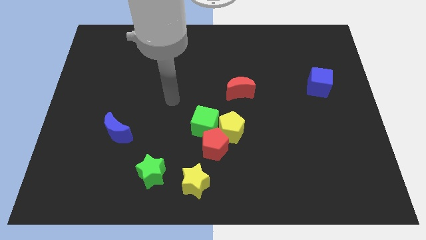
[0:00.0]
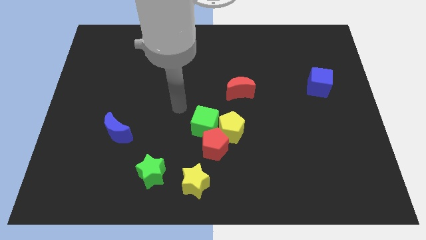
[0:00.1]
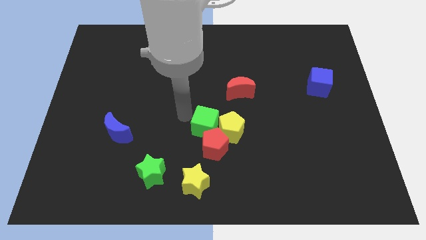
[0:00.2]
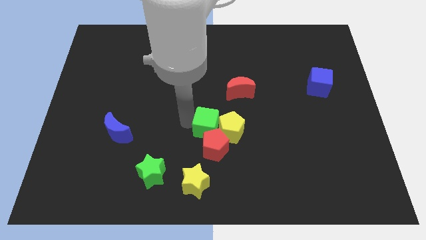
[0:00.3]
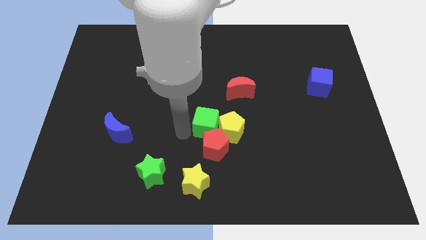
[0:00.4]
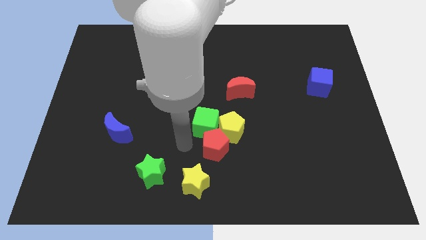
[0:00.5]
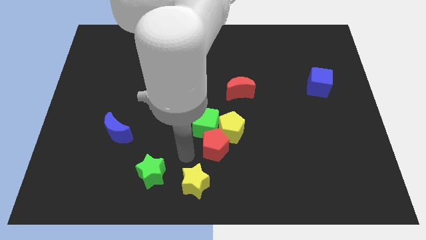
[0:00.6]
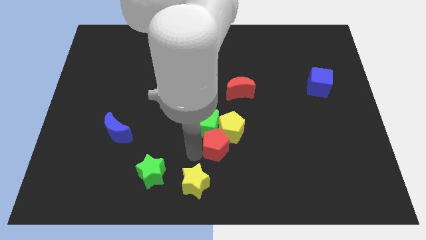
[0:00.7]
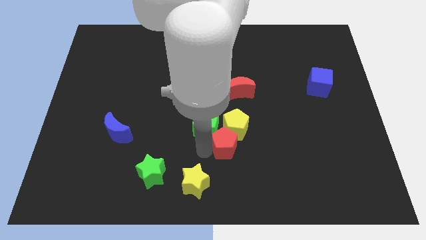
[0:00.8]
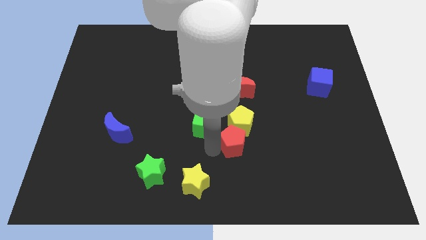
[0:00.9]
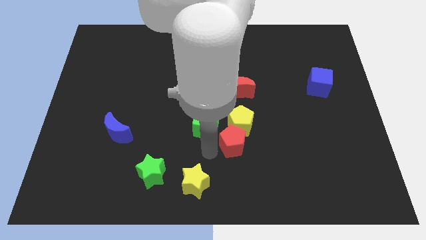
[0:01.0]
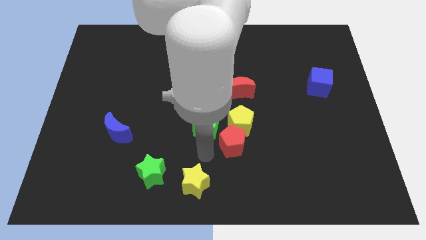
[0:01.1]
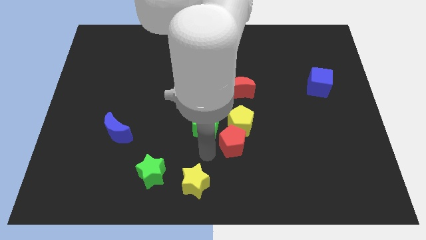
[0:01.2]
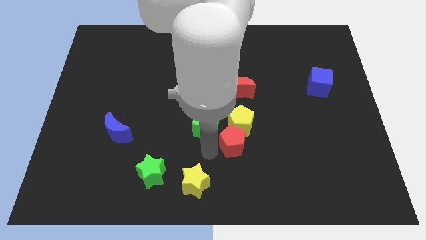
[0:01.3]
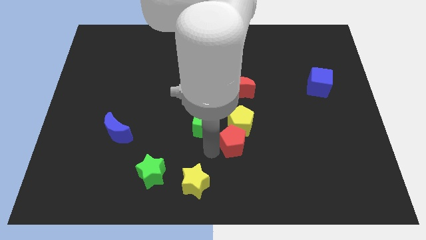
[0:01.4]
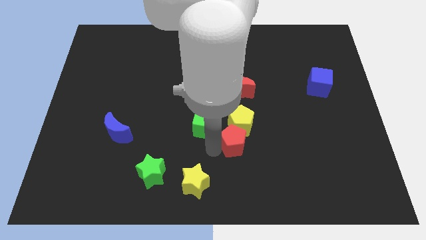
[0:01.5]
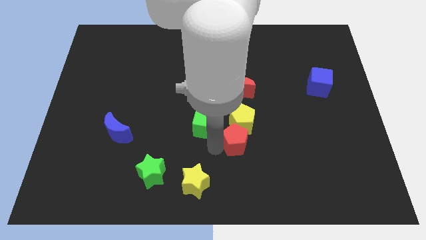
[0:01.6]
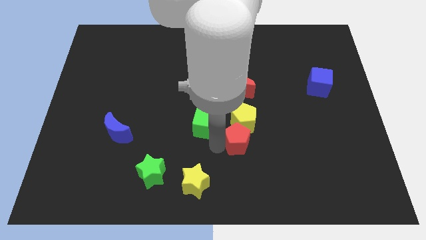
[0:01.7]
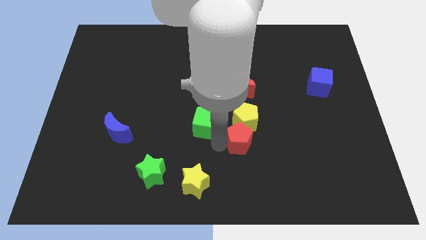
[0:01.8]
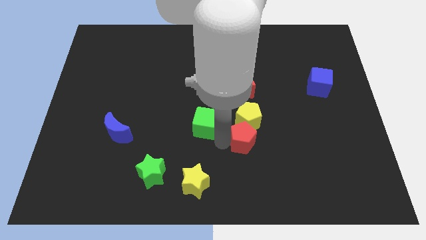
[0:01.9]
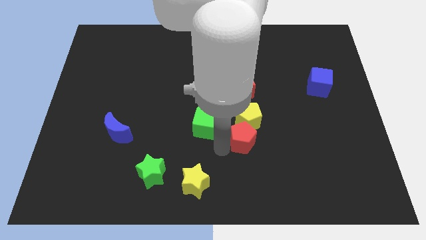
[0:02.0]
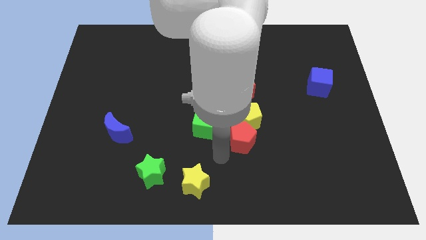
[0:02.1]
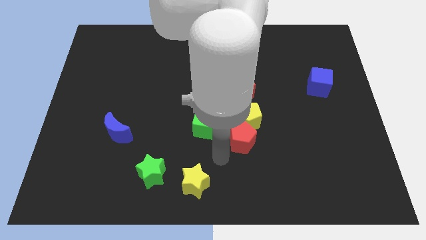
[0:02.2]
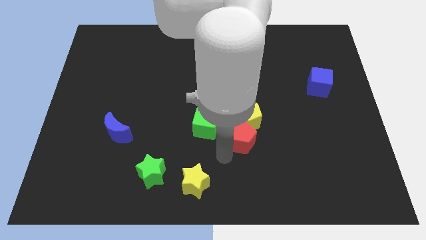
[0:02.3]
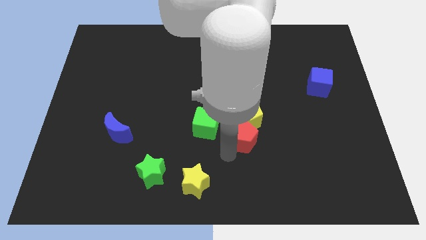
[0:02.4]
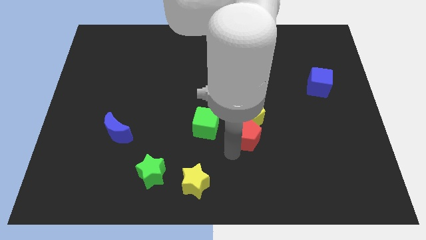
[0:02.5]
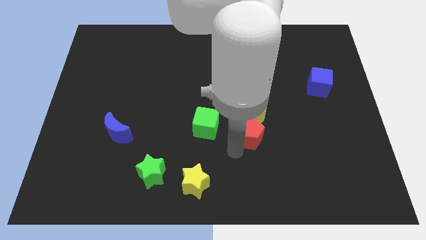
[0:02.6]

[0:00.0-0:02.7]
slightly push the red pentagon upwards and to the right

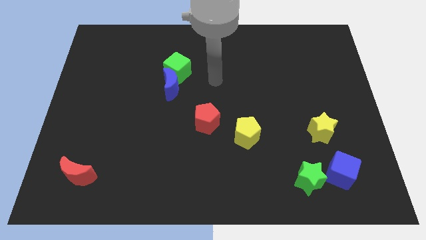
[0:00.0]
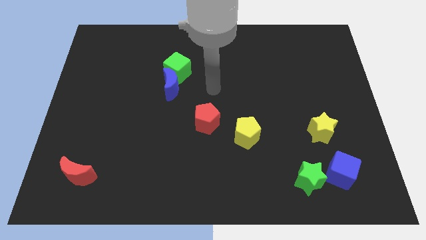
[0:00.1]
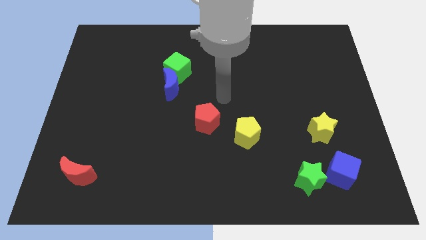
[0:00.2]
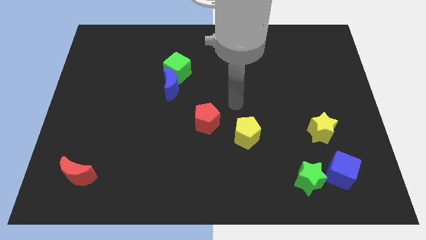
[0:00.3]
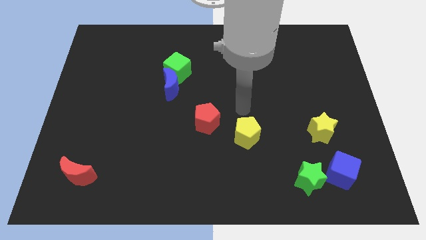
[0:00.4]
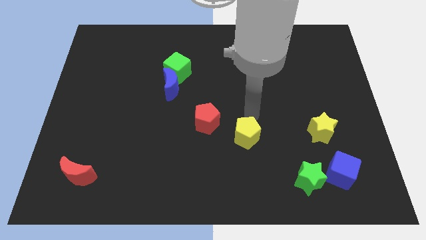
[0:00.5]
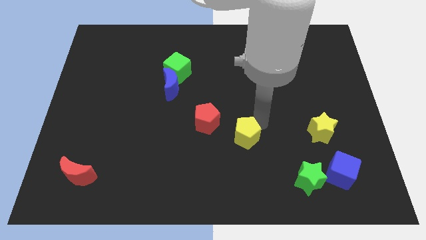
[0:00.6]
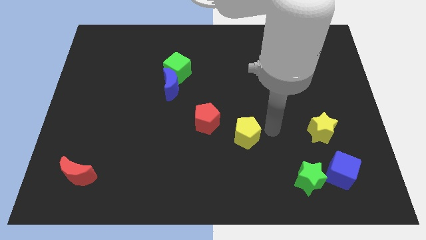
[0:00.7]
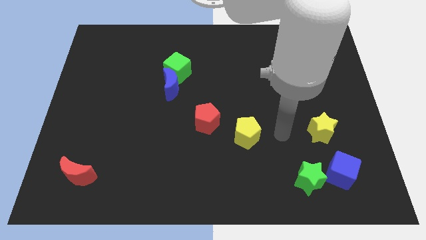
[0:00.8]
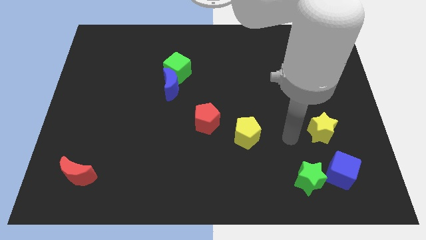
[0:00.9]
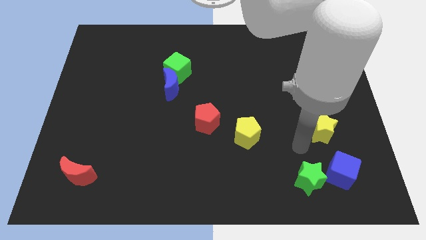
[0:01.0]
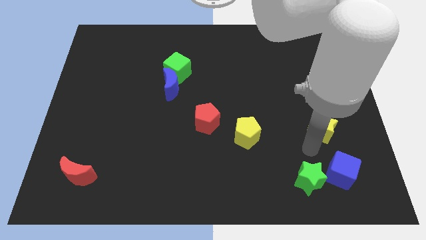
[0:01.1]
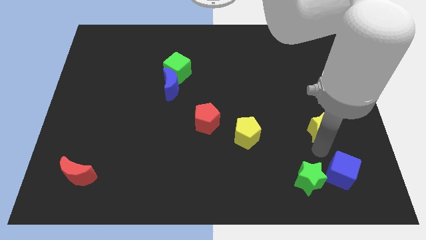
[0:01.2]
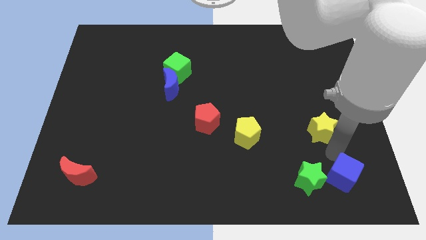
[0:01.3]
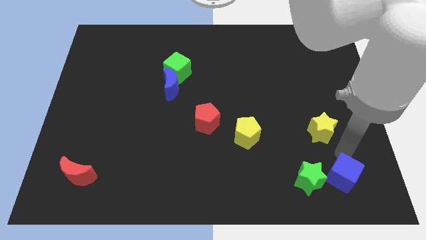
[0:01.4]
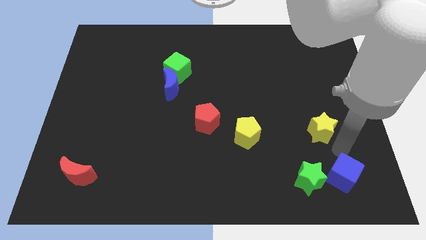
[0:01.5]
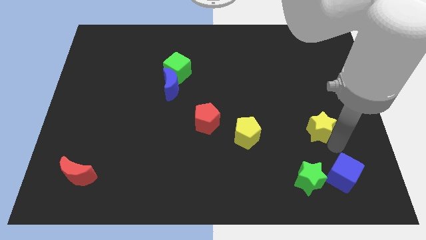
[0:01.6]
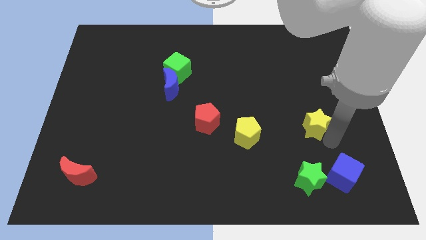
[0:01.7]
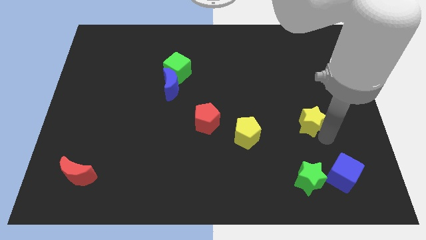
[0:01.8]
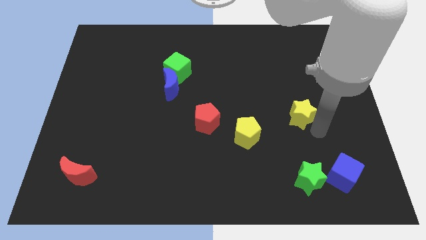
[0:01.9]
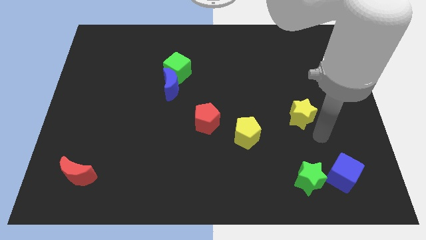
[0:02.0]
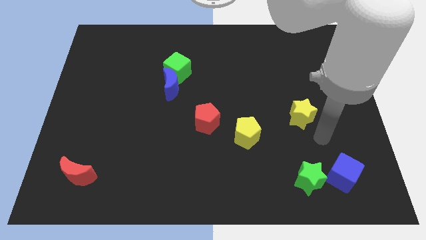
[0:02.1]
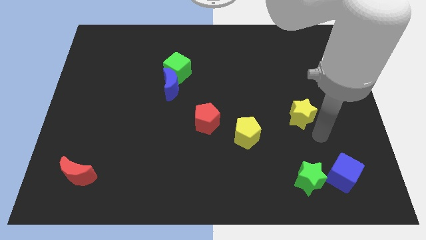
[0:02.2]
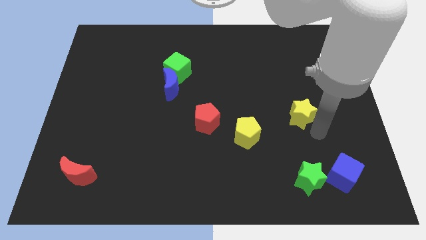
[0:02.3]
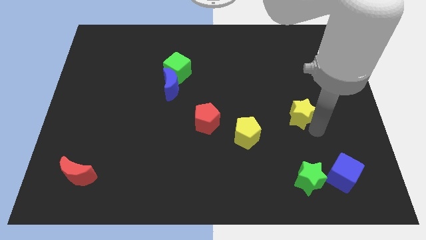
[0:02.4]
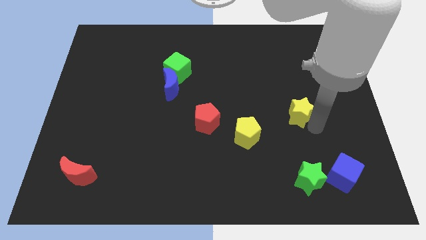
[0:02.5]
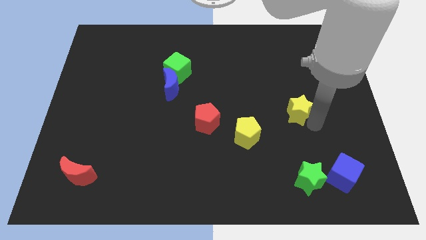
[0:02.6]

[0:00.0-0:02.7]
slightly slide the yellow star upwards and left

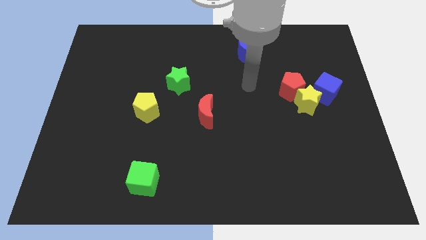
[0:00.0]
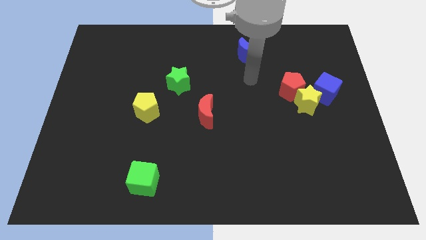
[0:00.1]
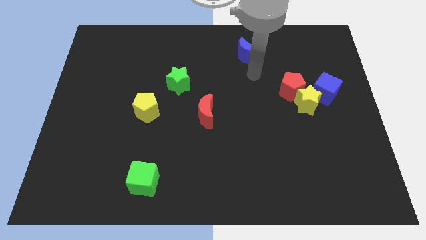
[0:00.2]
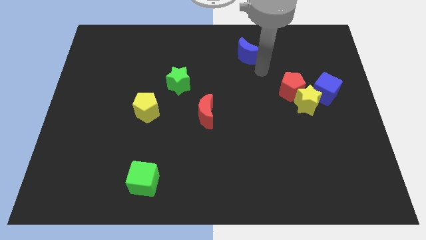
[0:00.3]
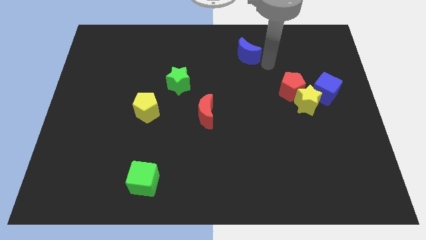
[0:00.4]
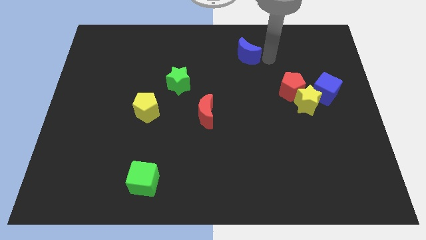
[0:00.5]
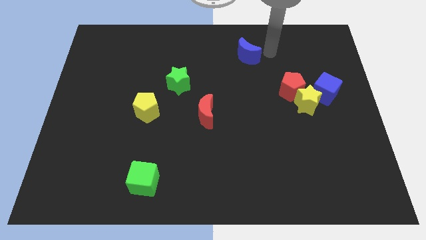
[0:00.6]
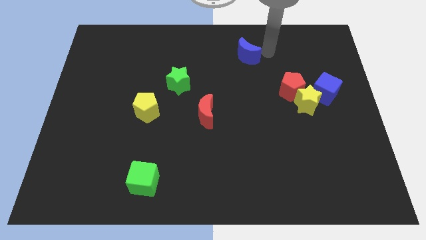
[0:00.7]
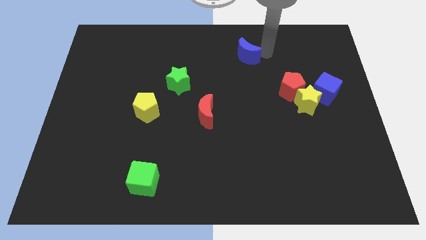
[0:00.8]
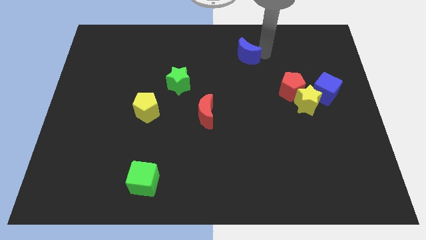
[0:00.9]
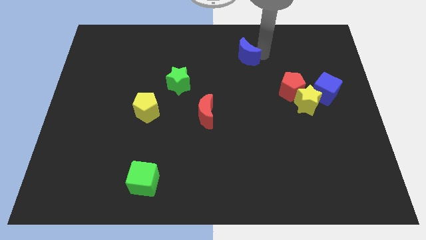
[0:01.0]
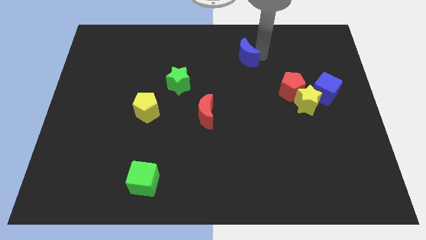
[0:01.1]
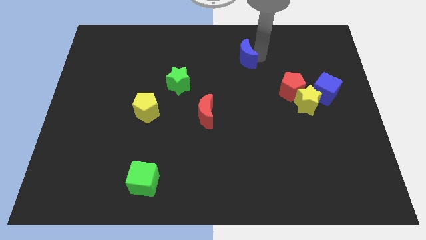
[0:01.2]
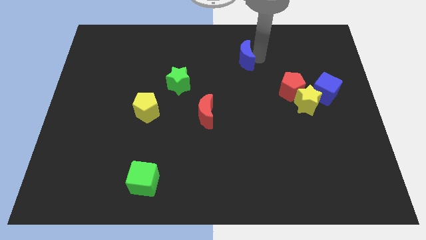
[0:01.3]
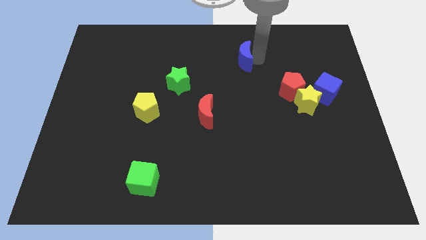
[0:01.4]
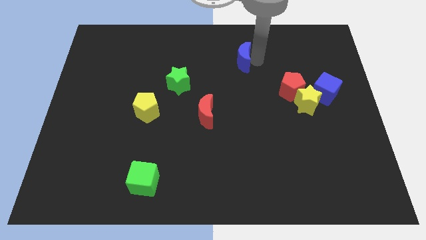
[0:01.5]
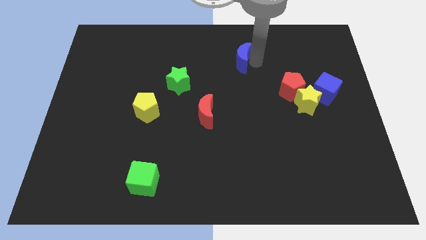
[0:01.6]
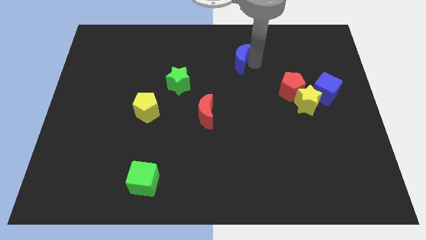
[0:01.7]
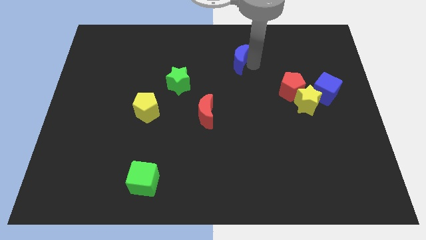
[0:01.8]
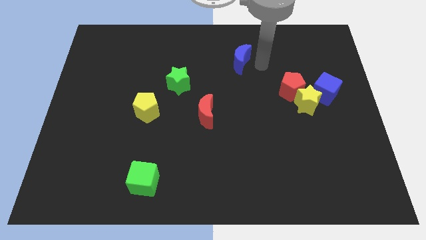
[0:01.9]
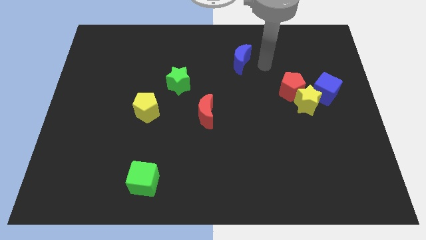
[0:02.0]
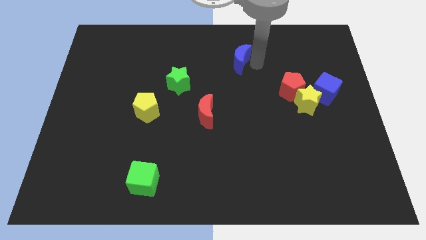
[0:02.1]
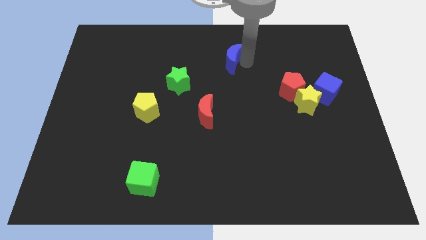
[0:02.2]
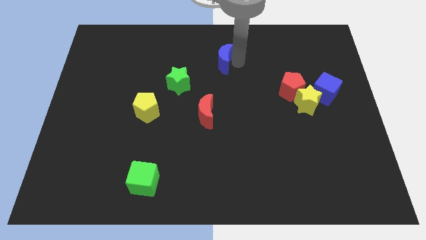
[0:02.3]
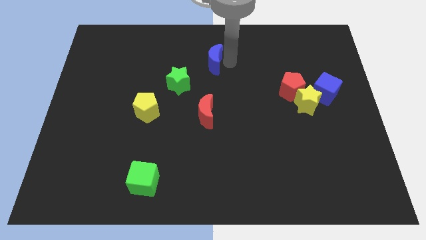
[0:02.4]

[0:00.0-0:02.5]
slide the blue moon a little bit to the left

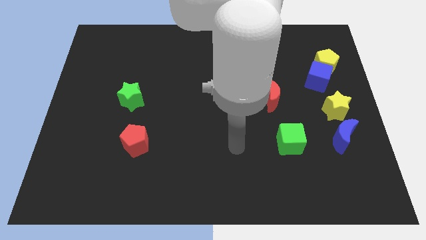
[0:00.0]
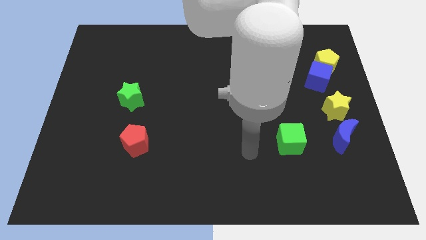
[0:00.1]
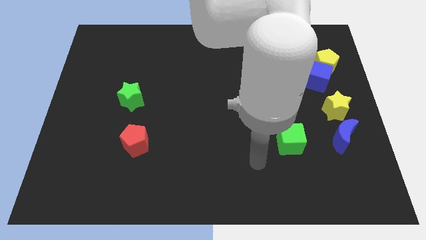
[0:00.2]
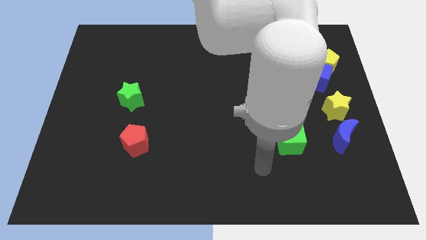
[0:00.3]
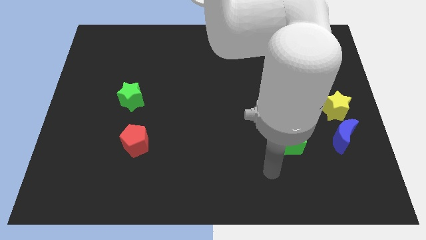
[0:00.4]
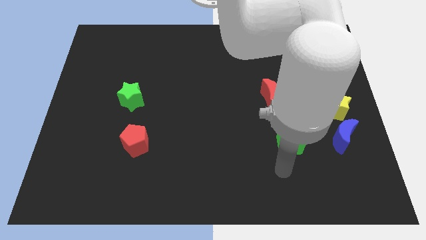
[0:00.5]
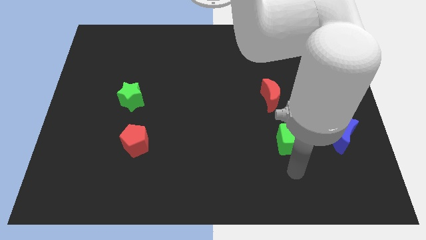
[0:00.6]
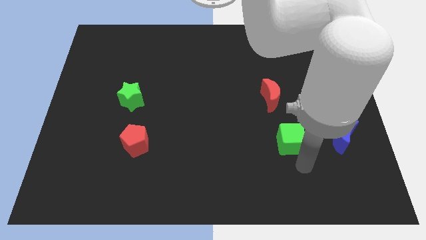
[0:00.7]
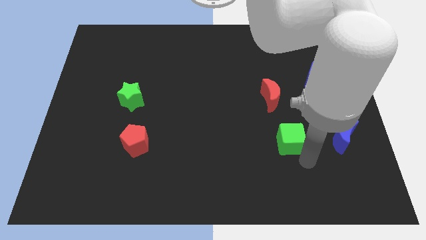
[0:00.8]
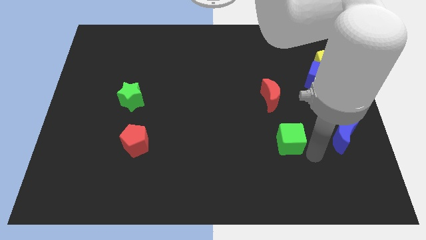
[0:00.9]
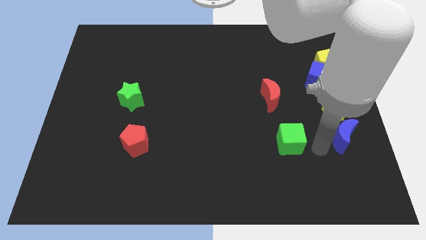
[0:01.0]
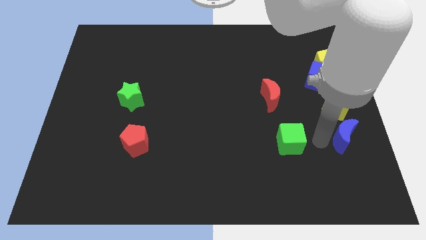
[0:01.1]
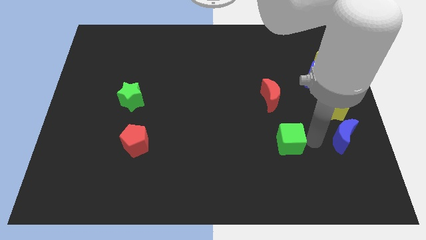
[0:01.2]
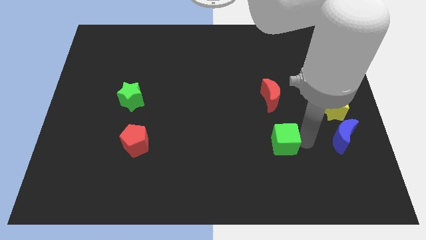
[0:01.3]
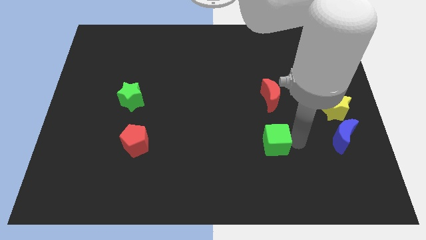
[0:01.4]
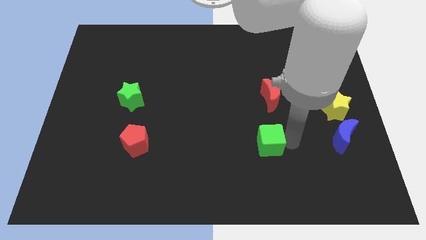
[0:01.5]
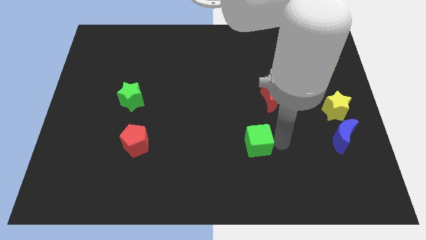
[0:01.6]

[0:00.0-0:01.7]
slide the green cube left somewhat
